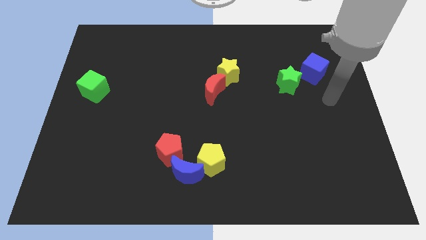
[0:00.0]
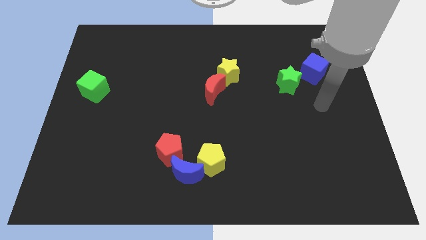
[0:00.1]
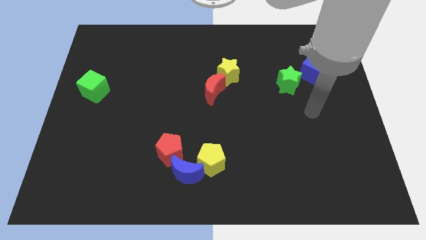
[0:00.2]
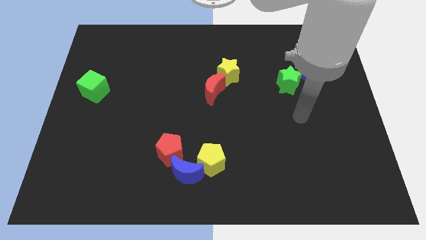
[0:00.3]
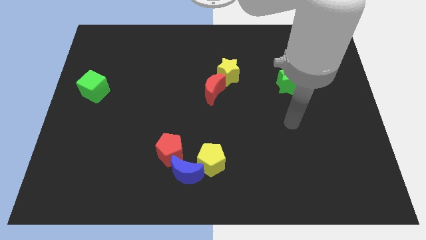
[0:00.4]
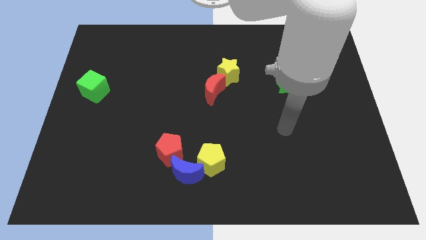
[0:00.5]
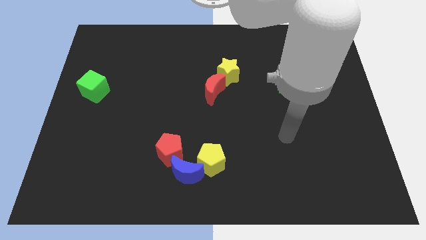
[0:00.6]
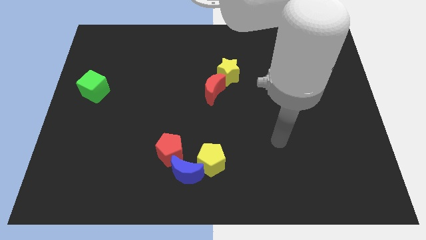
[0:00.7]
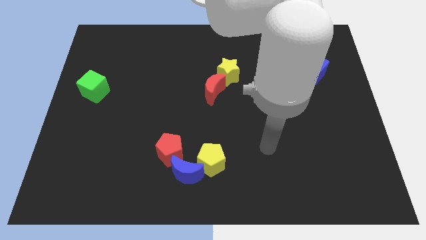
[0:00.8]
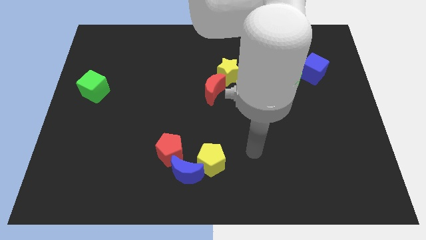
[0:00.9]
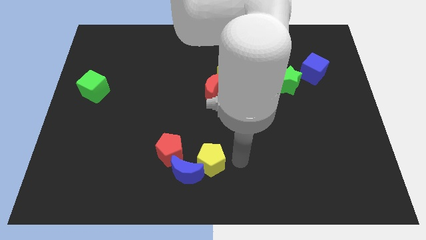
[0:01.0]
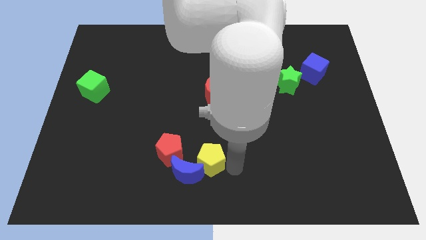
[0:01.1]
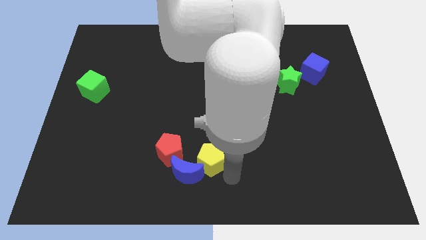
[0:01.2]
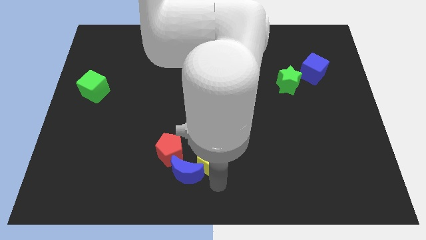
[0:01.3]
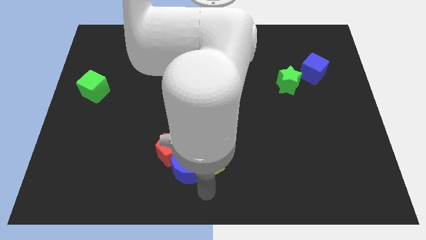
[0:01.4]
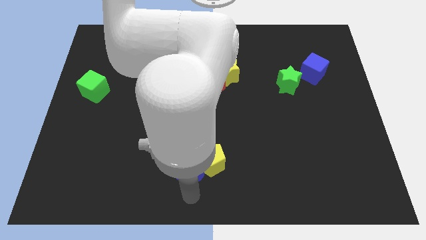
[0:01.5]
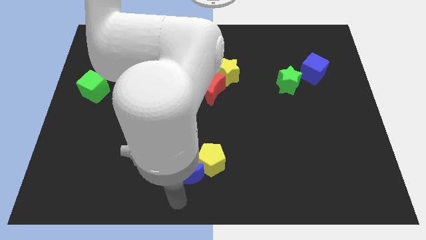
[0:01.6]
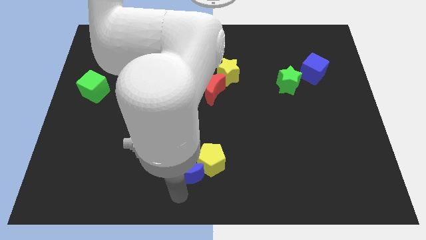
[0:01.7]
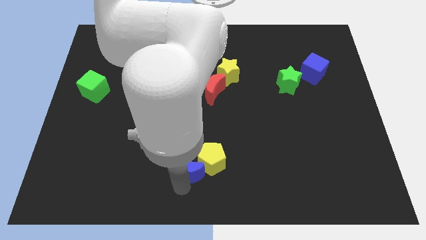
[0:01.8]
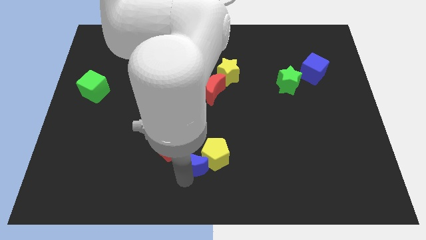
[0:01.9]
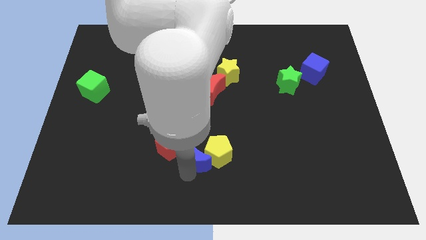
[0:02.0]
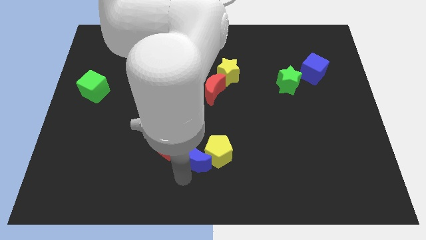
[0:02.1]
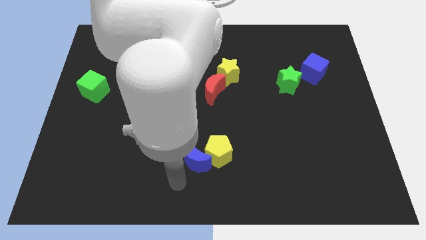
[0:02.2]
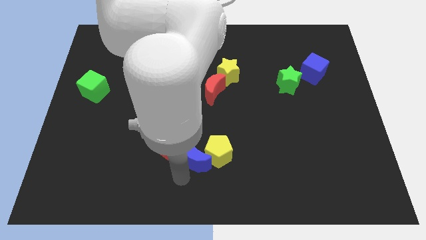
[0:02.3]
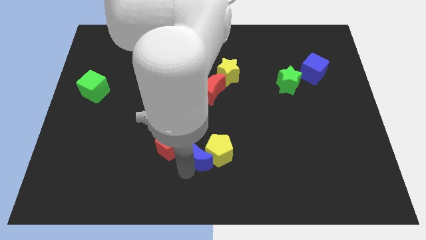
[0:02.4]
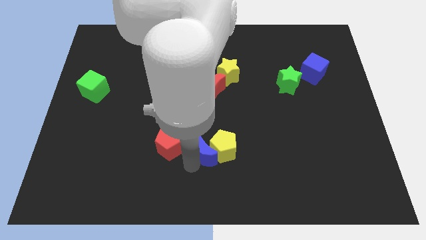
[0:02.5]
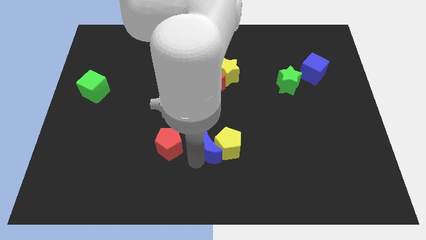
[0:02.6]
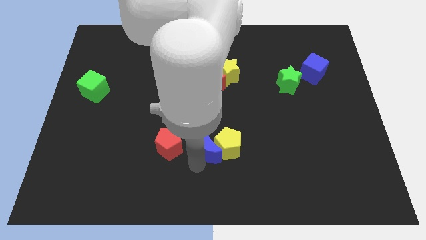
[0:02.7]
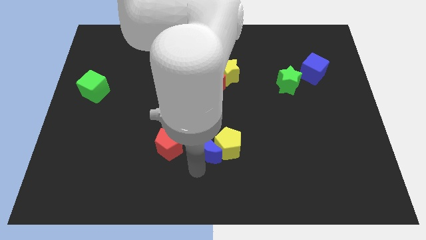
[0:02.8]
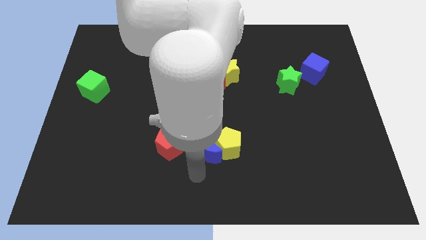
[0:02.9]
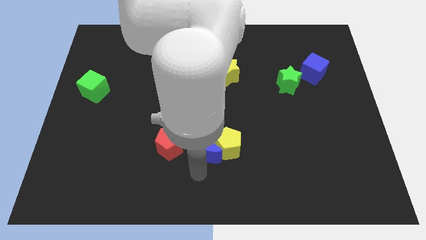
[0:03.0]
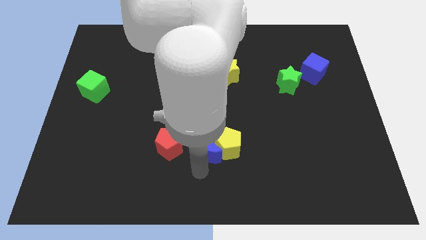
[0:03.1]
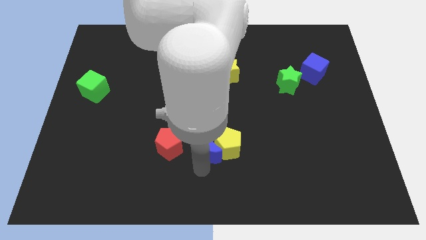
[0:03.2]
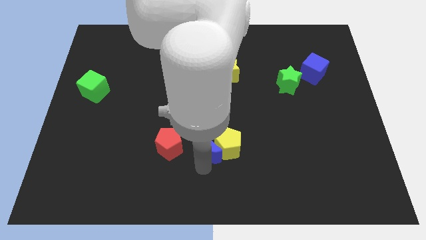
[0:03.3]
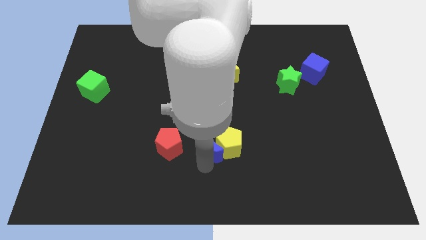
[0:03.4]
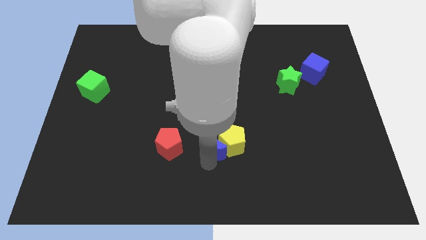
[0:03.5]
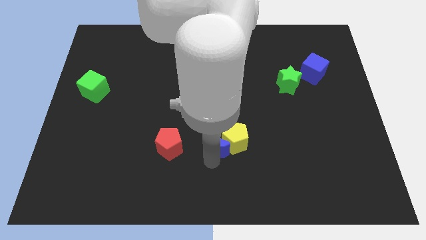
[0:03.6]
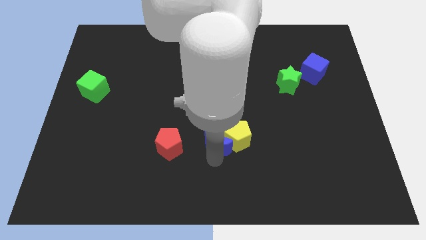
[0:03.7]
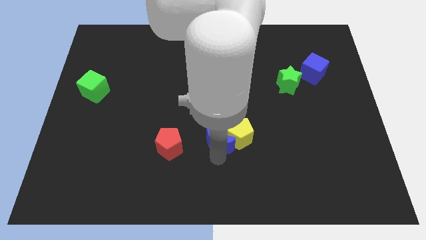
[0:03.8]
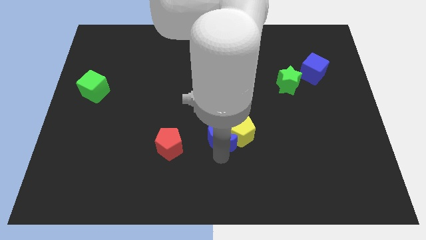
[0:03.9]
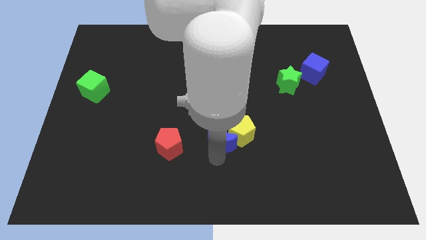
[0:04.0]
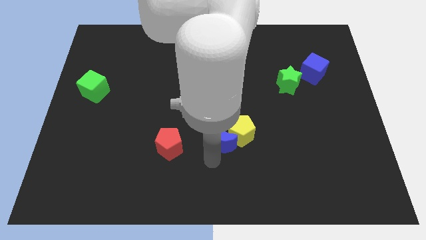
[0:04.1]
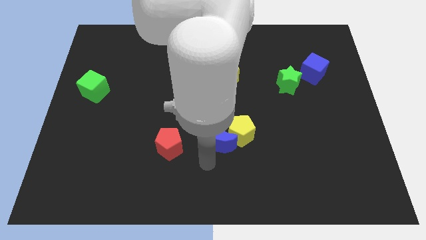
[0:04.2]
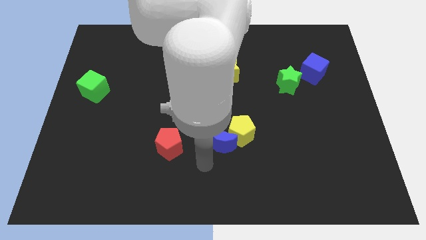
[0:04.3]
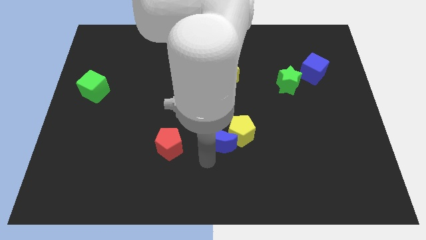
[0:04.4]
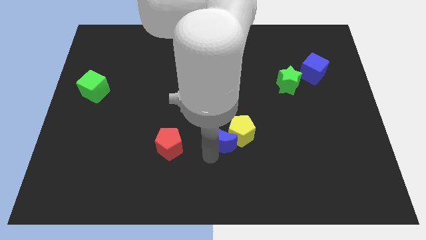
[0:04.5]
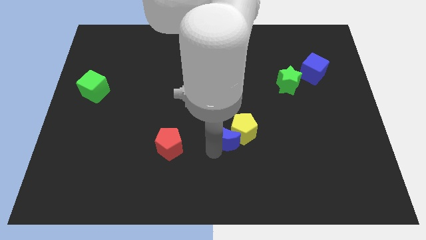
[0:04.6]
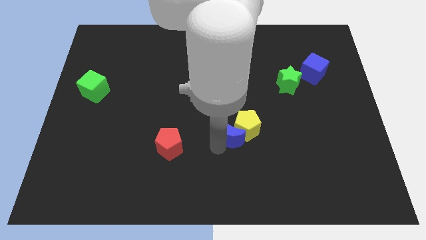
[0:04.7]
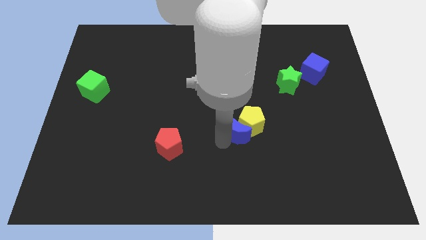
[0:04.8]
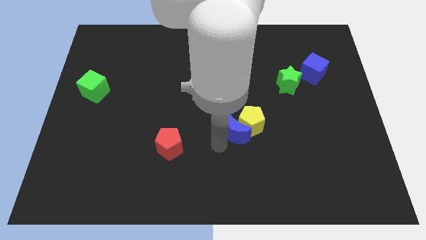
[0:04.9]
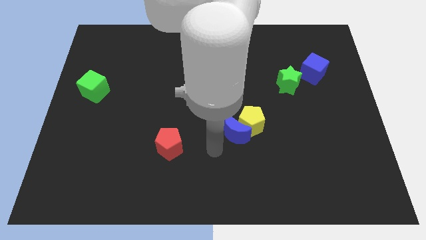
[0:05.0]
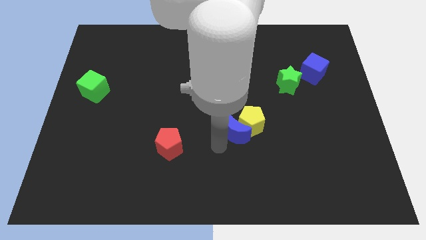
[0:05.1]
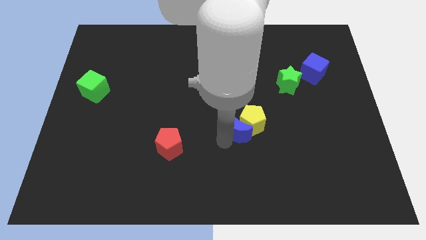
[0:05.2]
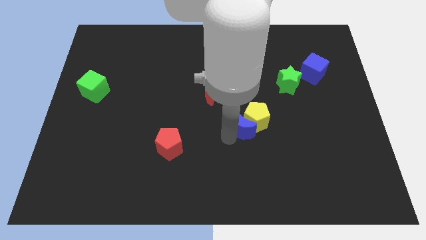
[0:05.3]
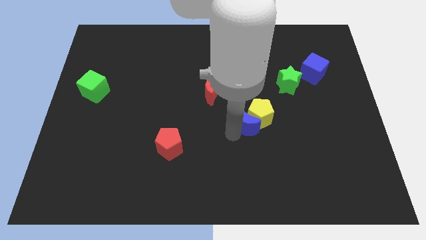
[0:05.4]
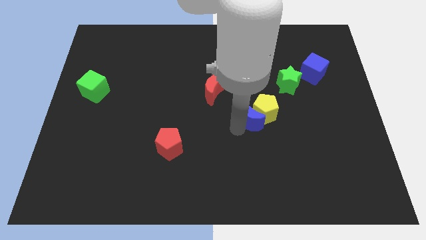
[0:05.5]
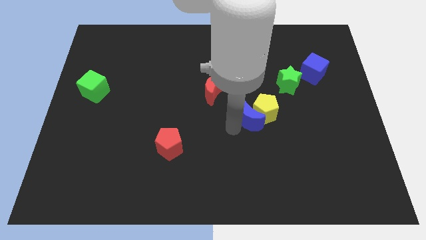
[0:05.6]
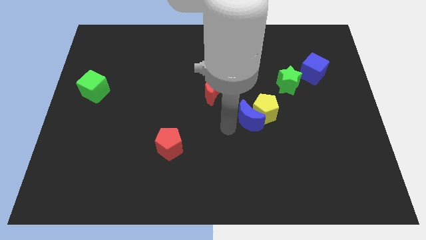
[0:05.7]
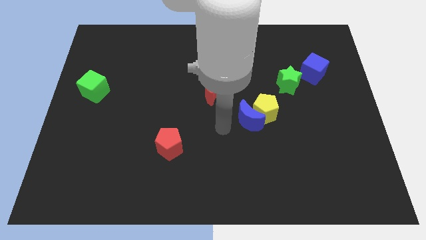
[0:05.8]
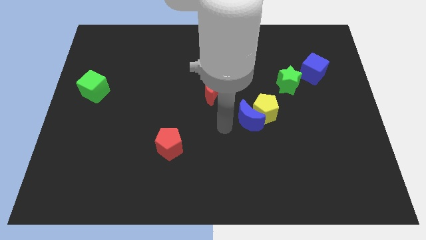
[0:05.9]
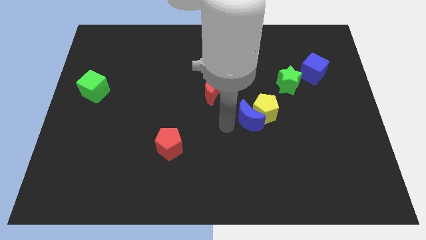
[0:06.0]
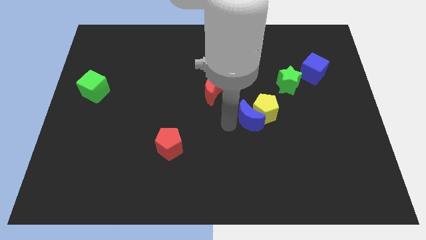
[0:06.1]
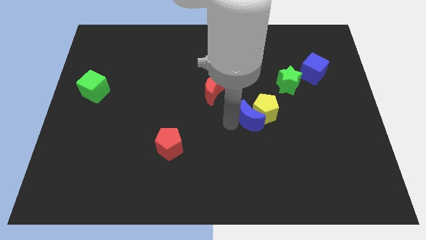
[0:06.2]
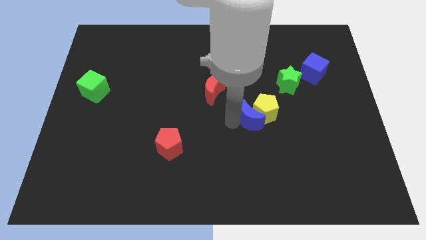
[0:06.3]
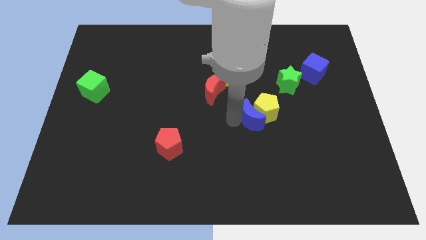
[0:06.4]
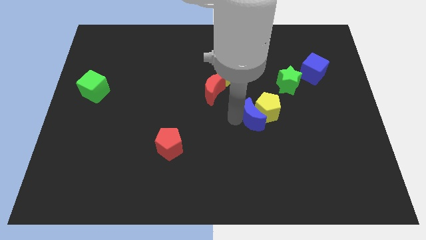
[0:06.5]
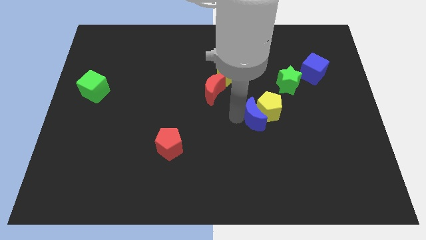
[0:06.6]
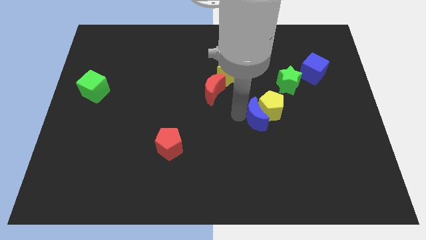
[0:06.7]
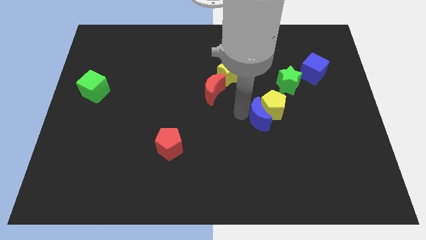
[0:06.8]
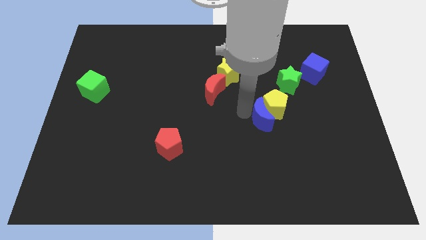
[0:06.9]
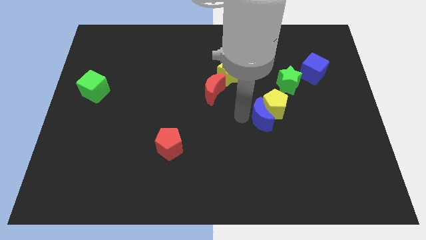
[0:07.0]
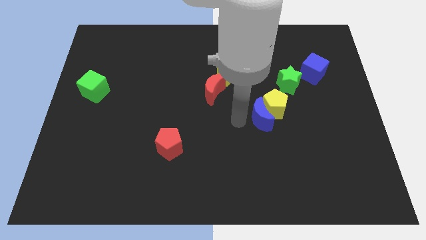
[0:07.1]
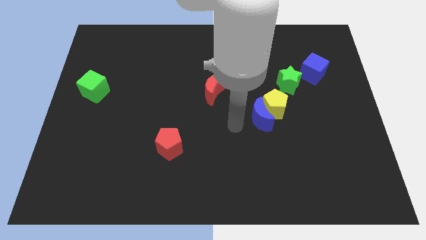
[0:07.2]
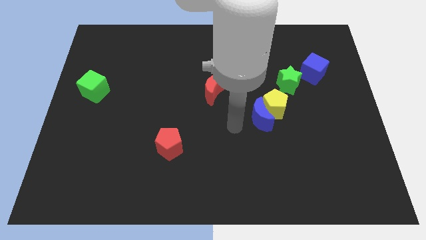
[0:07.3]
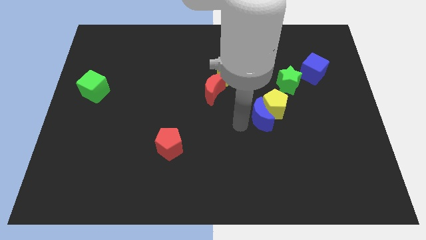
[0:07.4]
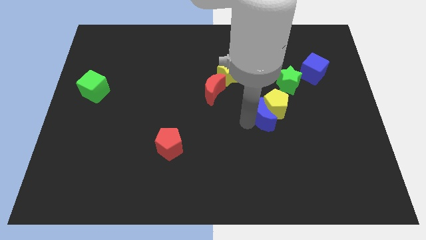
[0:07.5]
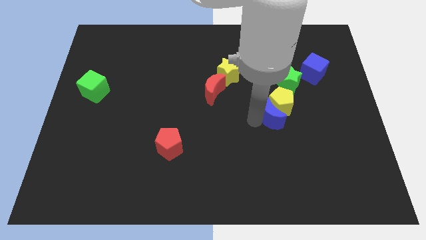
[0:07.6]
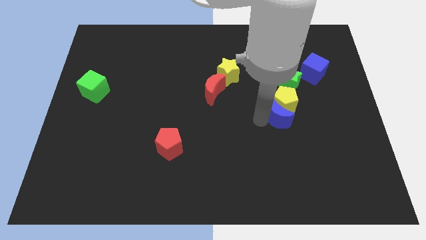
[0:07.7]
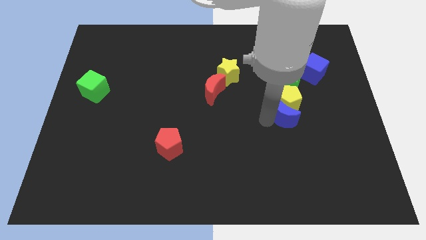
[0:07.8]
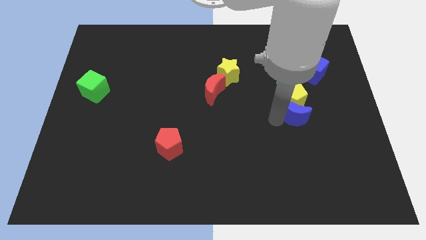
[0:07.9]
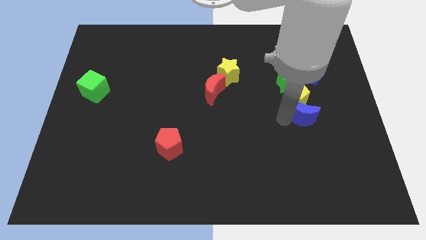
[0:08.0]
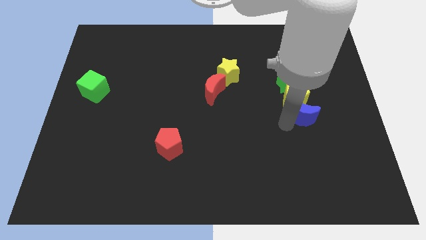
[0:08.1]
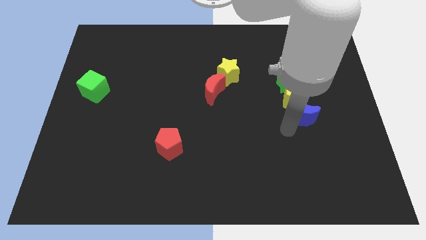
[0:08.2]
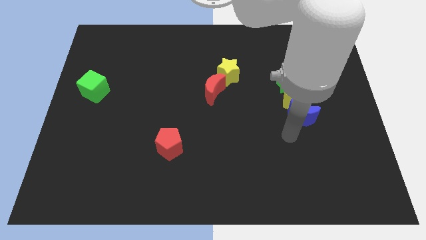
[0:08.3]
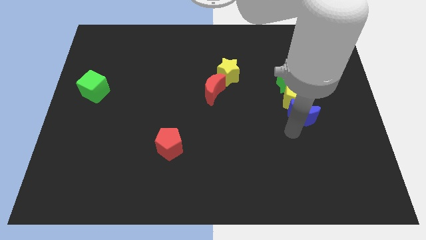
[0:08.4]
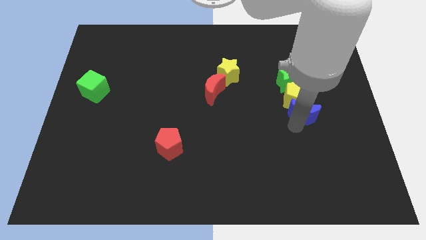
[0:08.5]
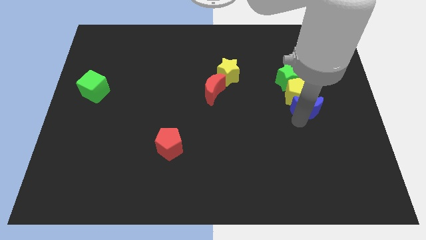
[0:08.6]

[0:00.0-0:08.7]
put the blue moon to the bottom right side of the green star
